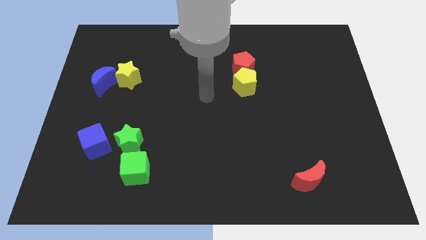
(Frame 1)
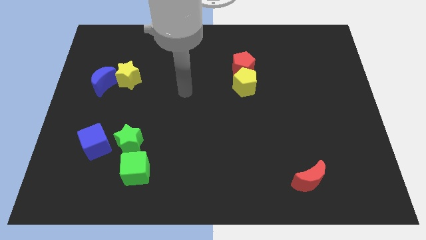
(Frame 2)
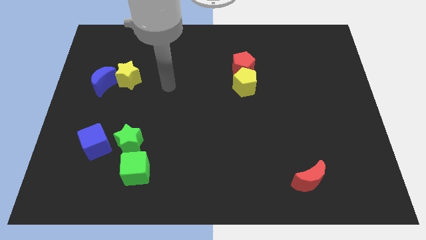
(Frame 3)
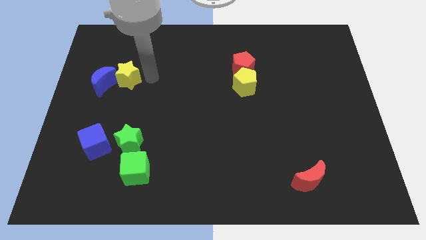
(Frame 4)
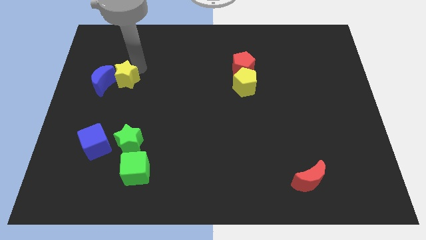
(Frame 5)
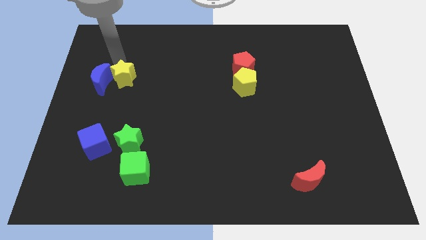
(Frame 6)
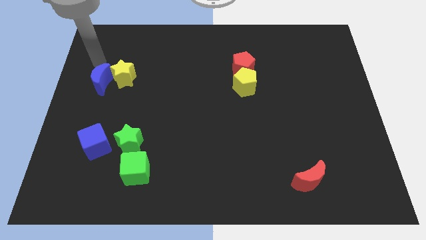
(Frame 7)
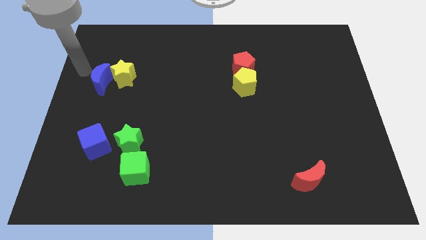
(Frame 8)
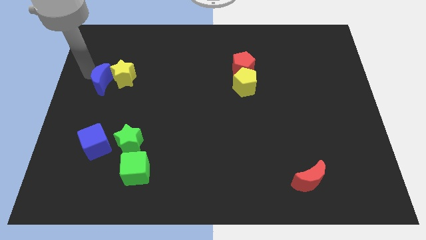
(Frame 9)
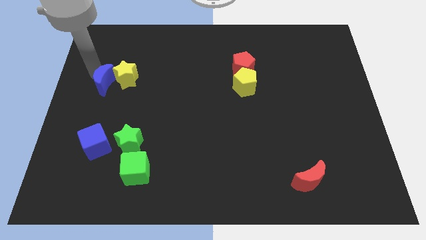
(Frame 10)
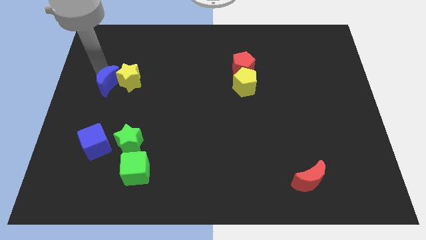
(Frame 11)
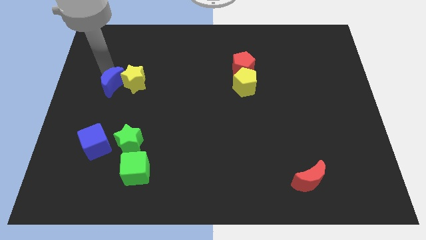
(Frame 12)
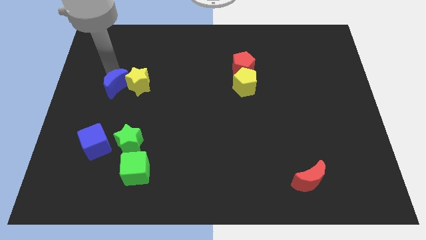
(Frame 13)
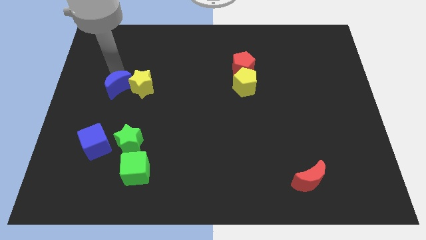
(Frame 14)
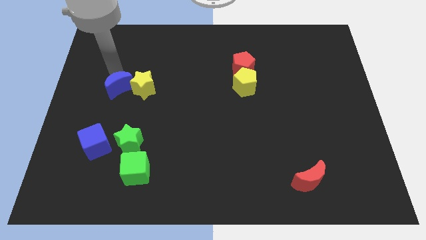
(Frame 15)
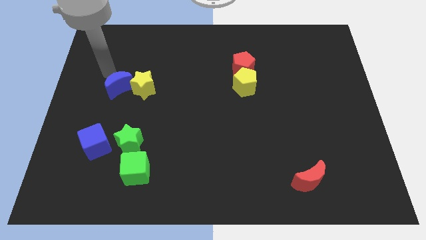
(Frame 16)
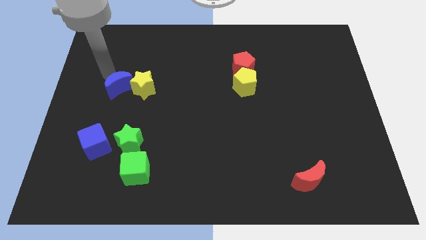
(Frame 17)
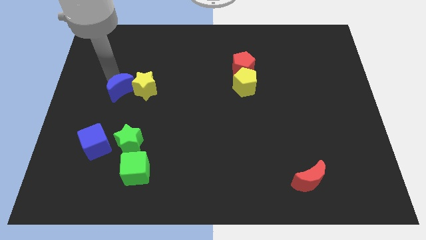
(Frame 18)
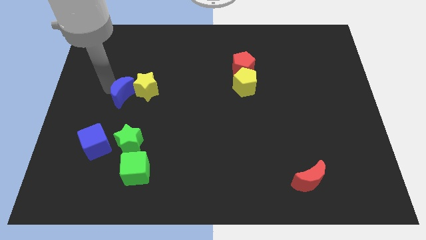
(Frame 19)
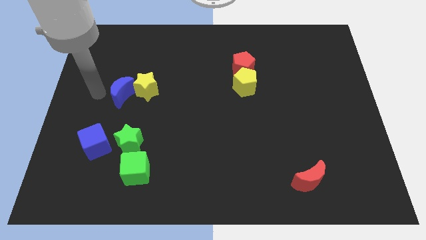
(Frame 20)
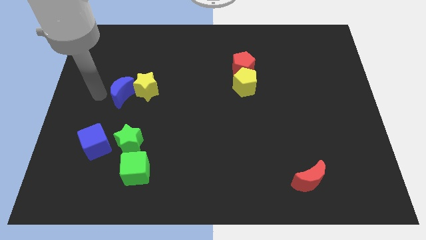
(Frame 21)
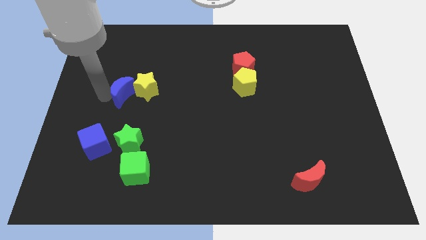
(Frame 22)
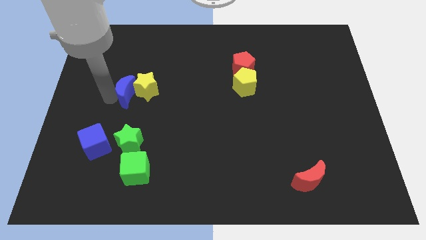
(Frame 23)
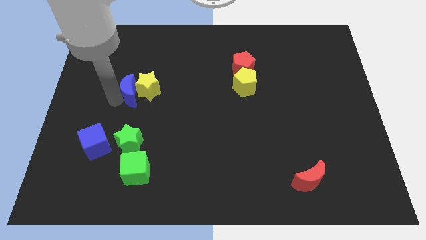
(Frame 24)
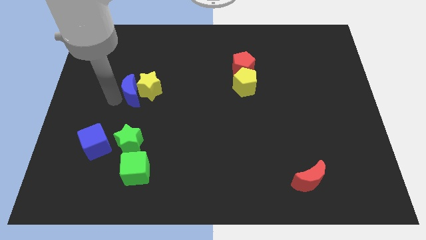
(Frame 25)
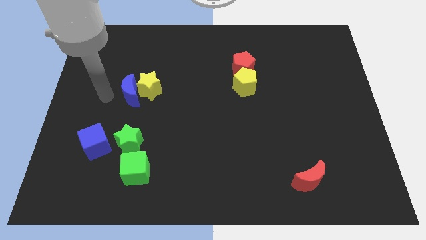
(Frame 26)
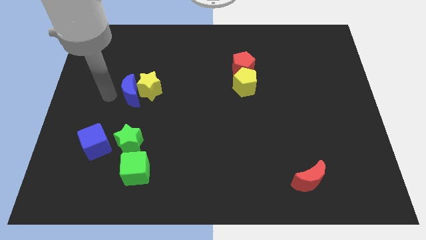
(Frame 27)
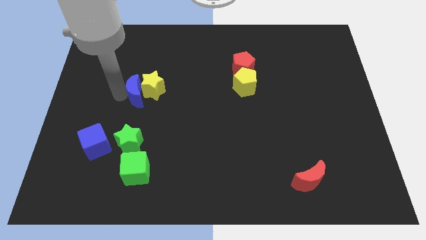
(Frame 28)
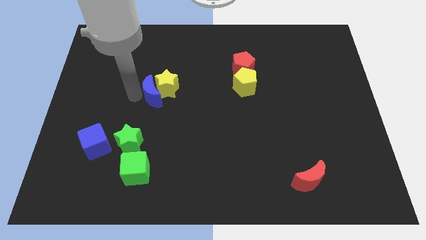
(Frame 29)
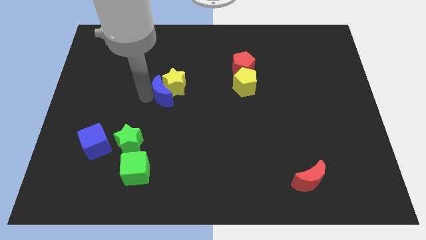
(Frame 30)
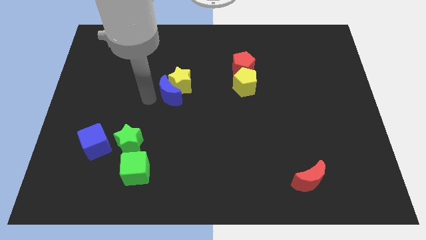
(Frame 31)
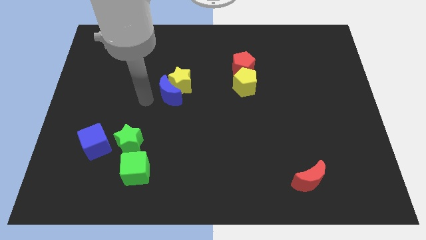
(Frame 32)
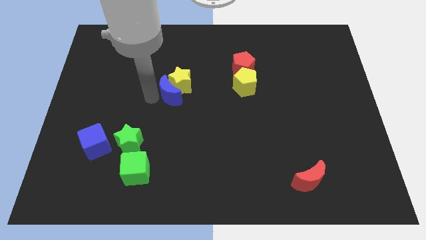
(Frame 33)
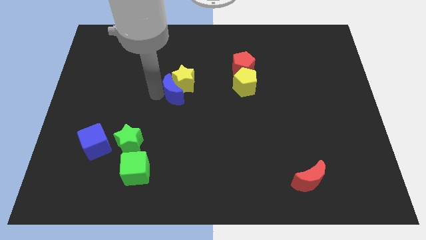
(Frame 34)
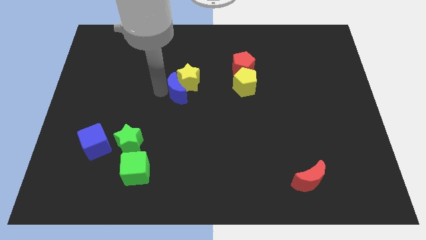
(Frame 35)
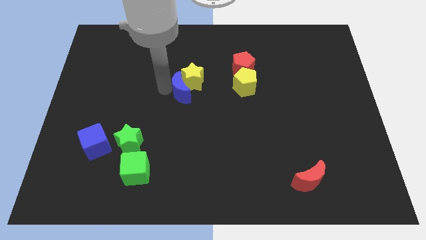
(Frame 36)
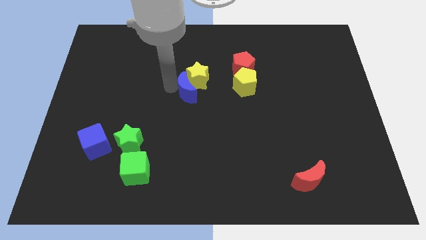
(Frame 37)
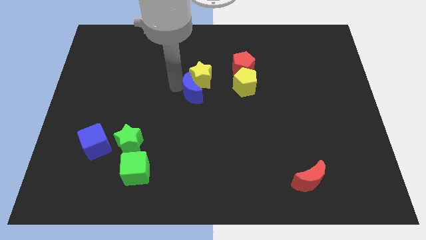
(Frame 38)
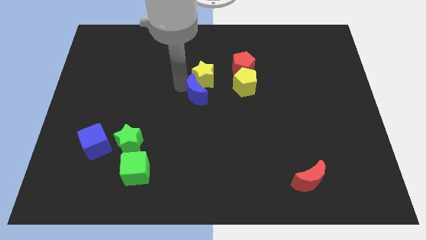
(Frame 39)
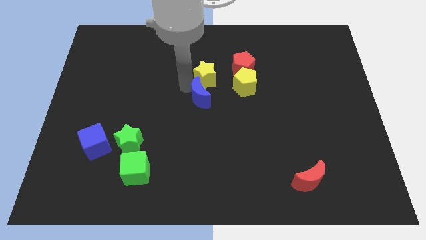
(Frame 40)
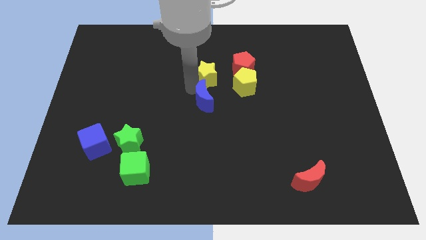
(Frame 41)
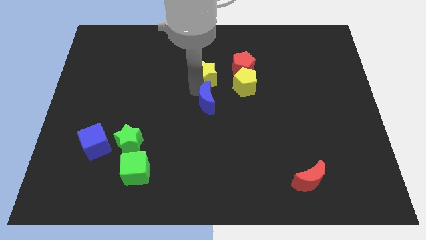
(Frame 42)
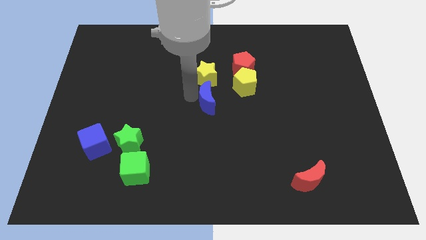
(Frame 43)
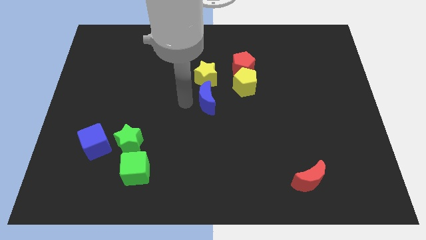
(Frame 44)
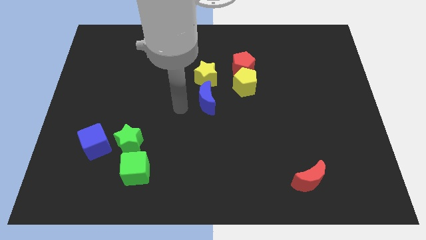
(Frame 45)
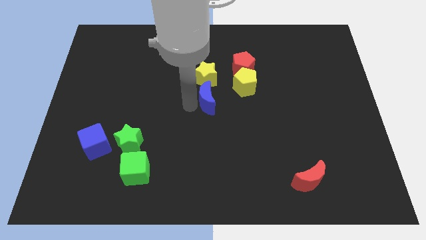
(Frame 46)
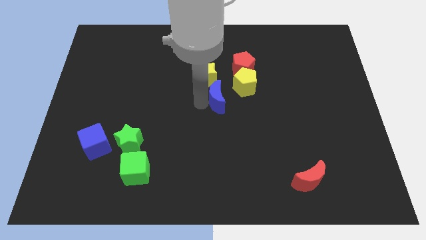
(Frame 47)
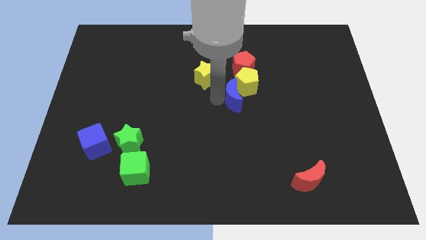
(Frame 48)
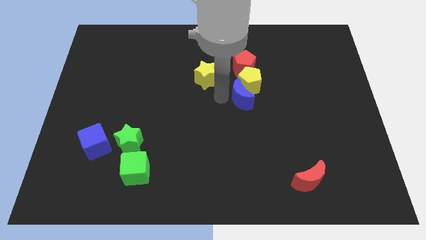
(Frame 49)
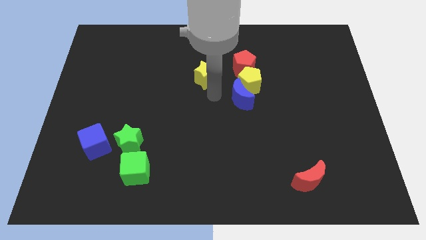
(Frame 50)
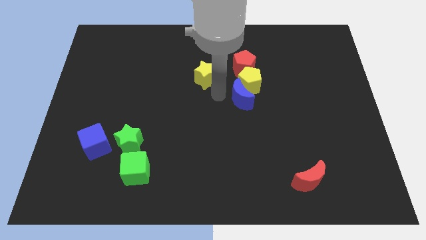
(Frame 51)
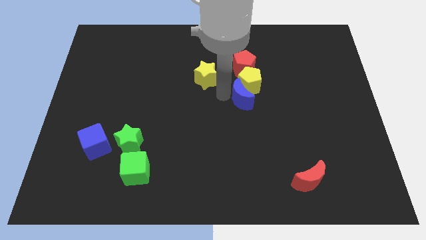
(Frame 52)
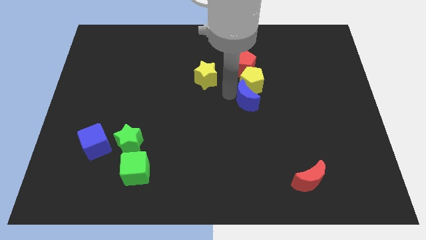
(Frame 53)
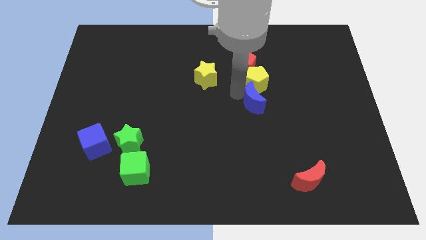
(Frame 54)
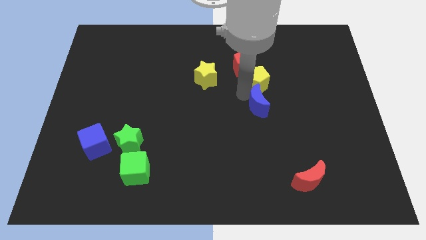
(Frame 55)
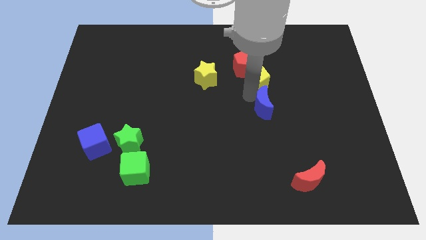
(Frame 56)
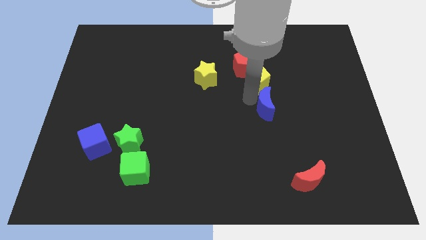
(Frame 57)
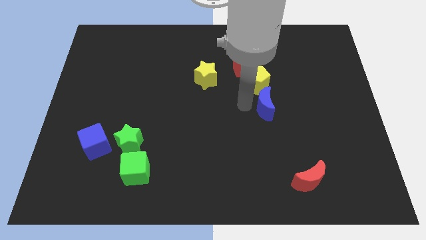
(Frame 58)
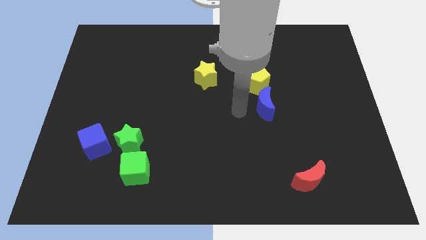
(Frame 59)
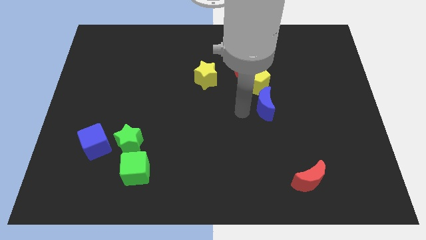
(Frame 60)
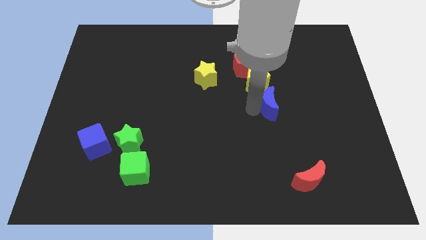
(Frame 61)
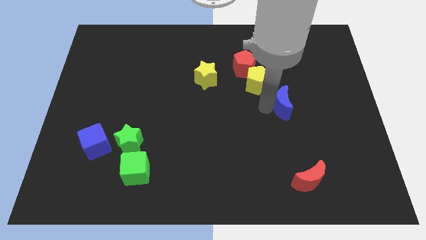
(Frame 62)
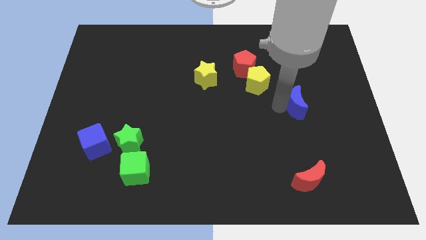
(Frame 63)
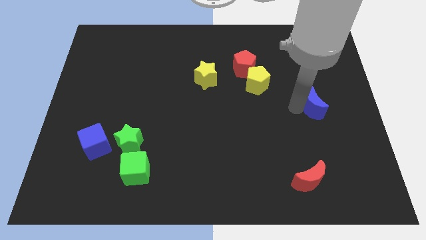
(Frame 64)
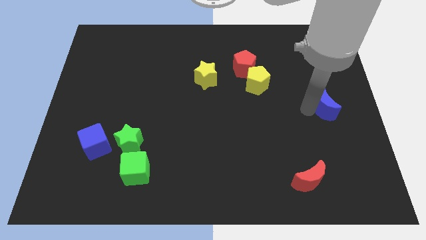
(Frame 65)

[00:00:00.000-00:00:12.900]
push the blue moon to the center right
